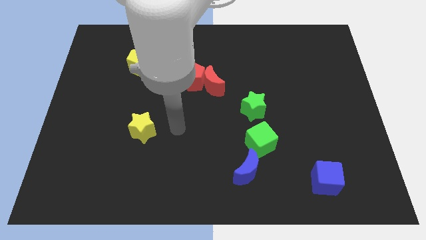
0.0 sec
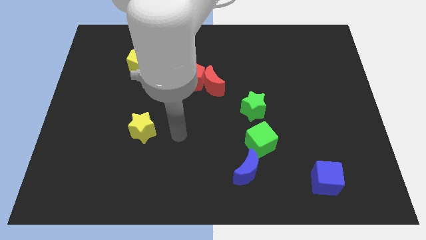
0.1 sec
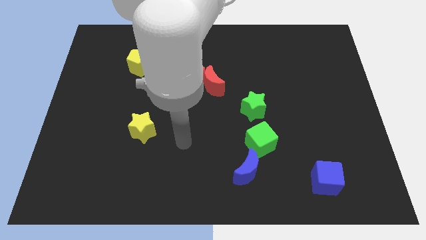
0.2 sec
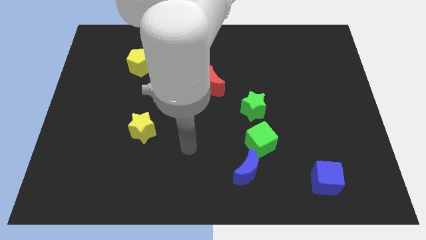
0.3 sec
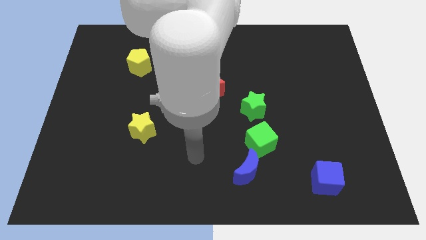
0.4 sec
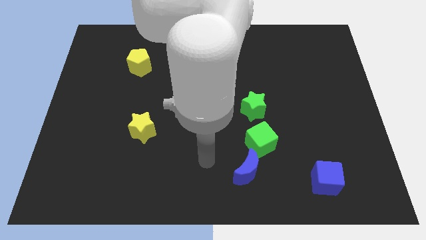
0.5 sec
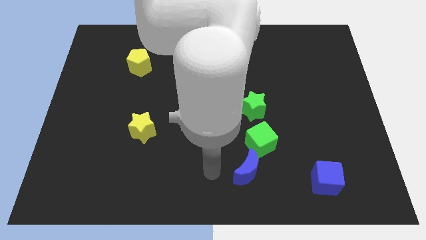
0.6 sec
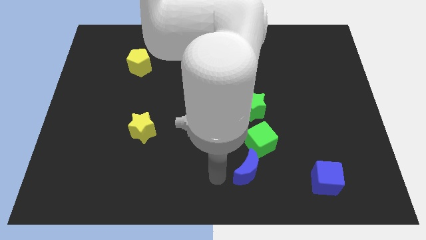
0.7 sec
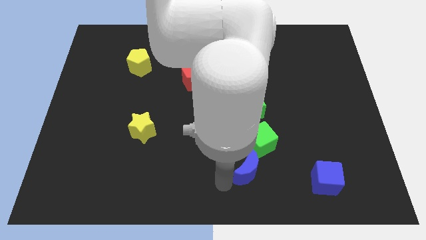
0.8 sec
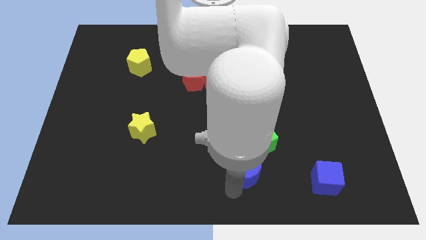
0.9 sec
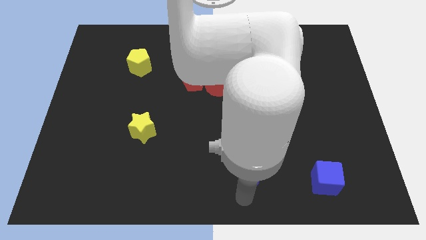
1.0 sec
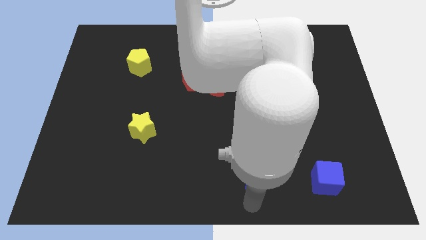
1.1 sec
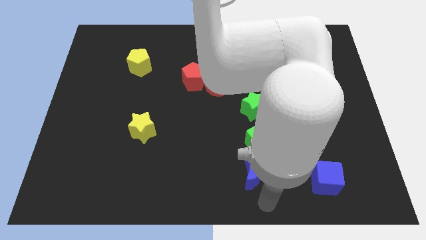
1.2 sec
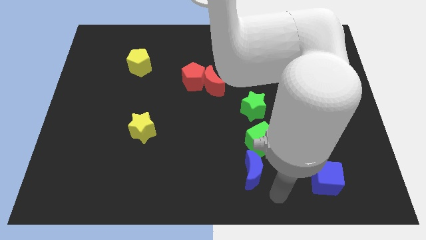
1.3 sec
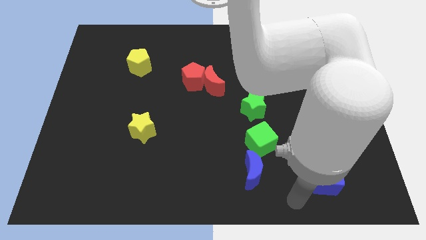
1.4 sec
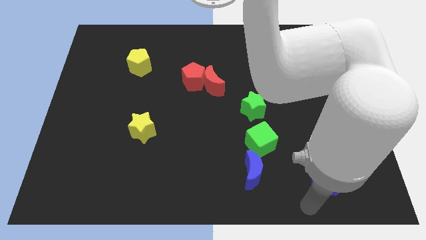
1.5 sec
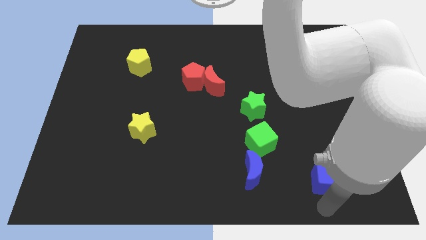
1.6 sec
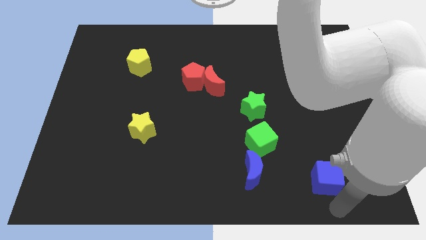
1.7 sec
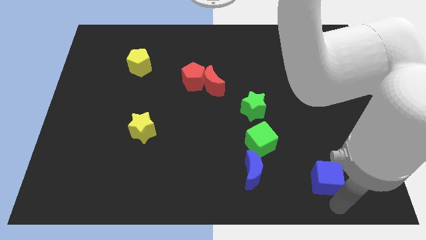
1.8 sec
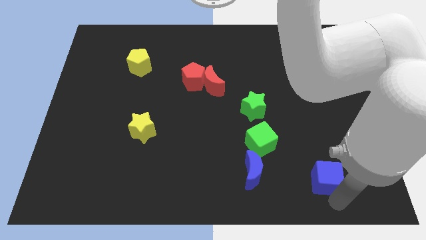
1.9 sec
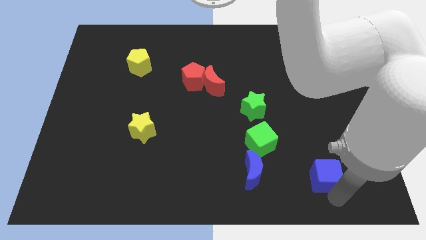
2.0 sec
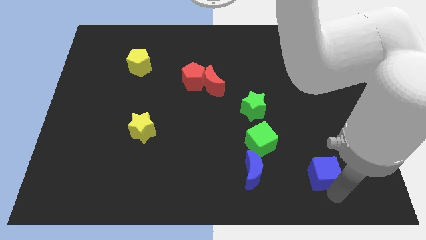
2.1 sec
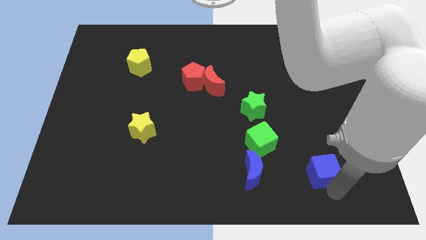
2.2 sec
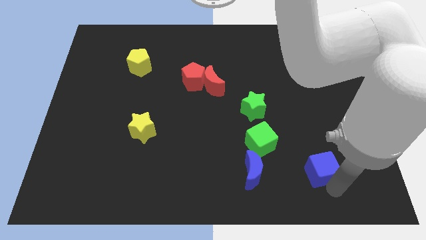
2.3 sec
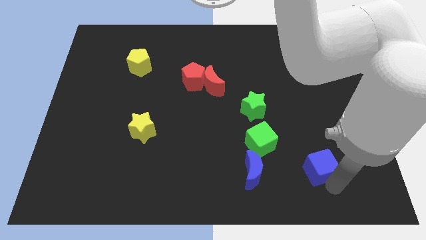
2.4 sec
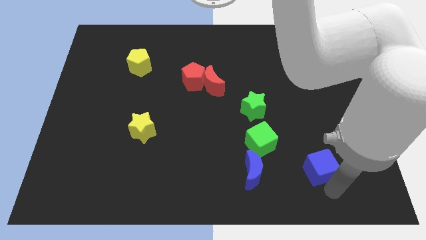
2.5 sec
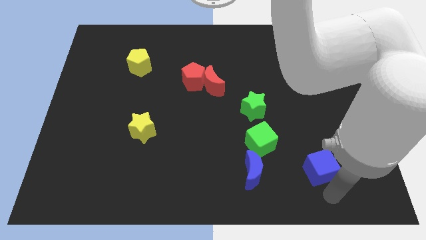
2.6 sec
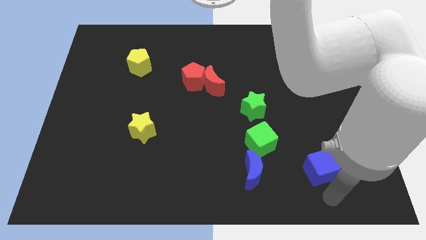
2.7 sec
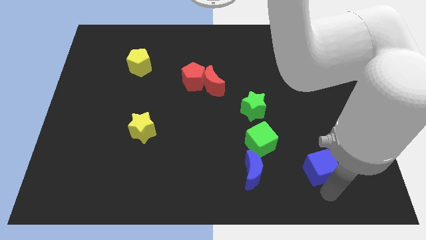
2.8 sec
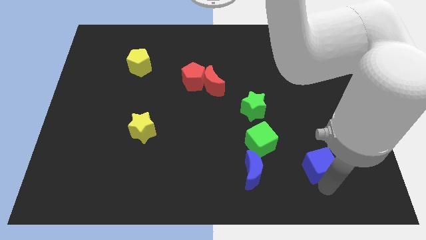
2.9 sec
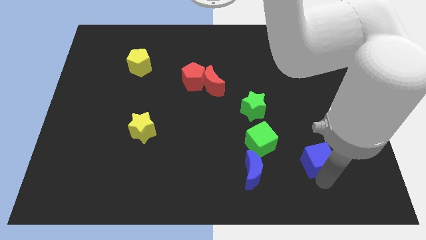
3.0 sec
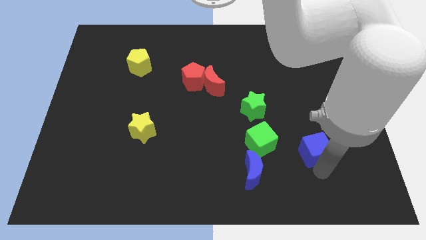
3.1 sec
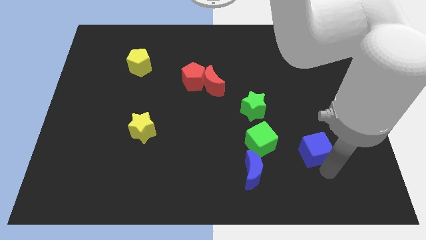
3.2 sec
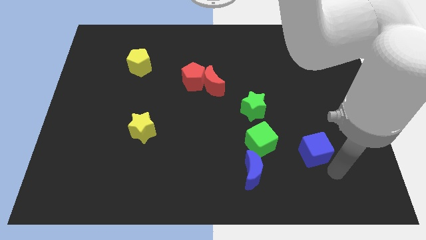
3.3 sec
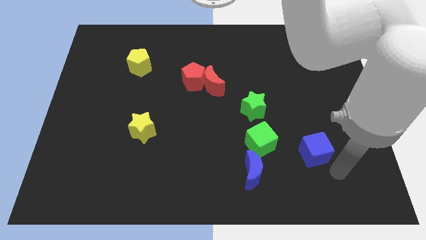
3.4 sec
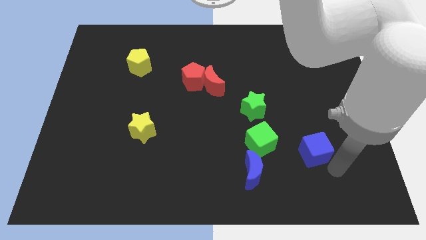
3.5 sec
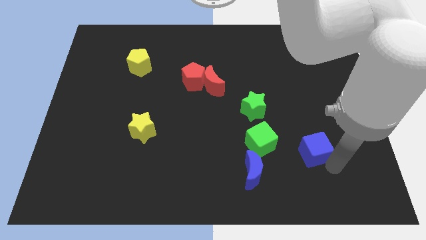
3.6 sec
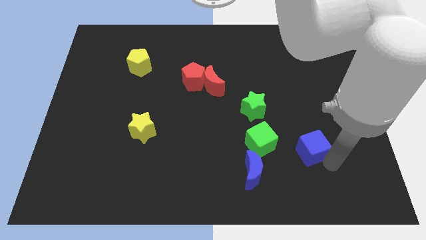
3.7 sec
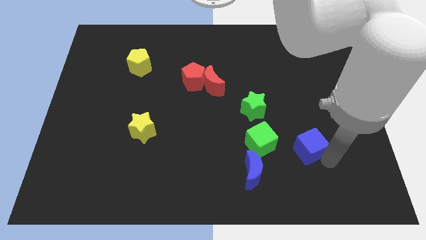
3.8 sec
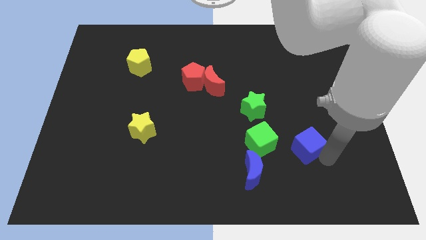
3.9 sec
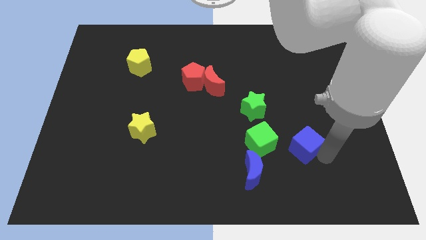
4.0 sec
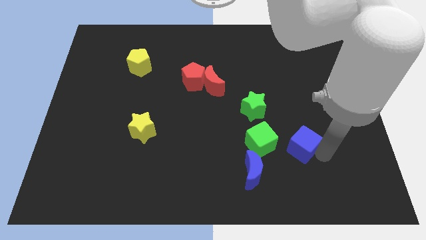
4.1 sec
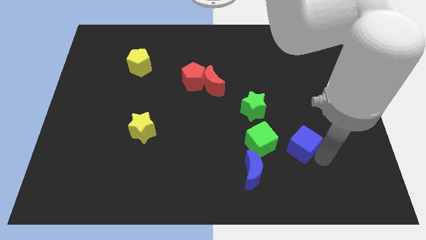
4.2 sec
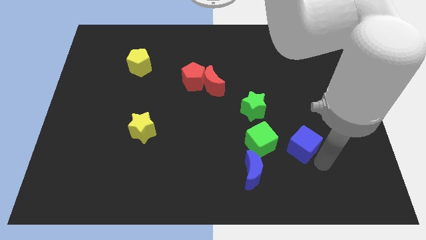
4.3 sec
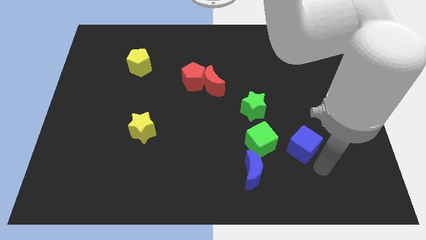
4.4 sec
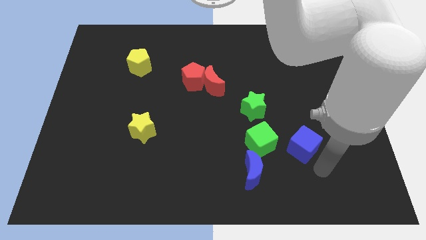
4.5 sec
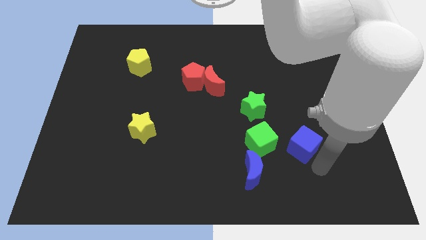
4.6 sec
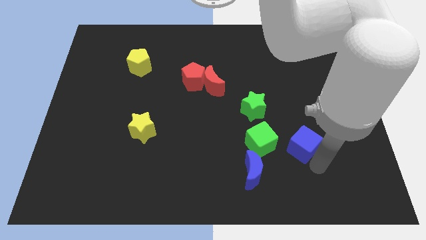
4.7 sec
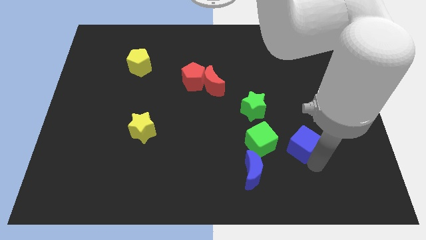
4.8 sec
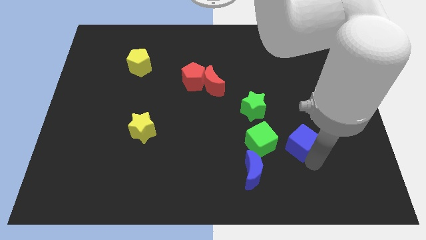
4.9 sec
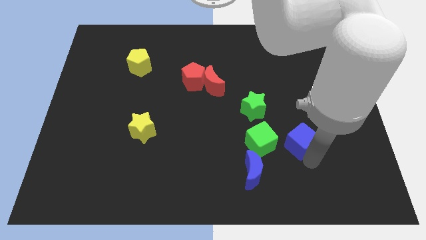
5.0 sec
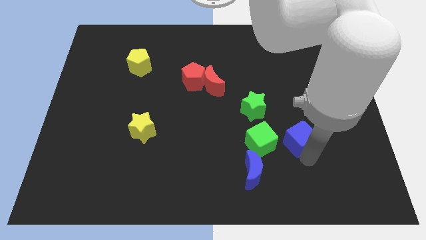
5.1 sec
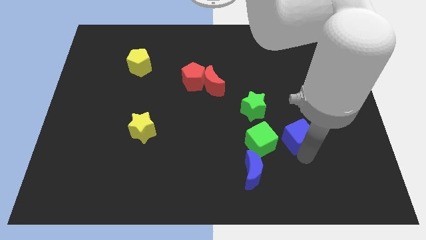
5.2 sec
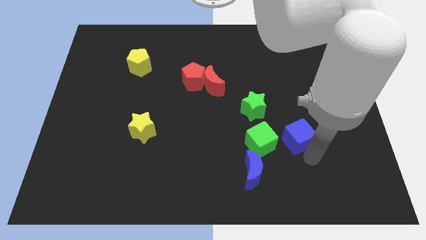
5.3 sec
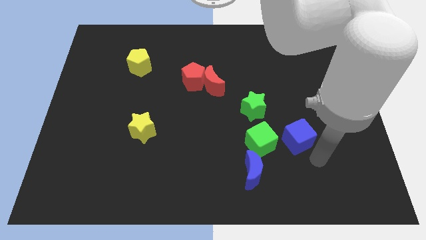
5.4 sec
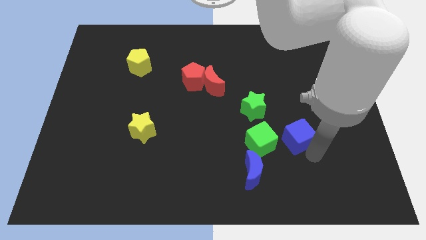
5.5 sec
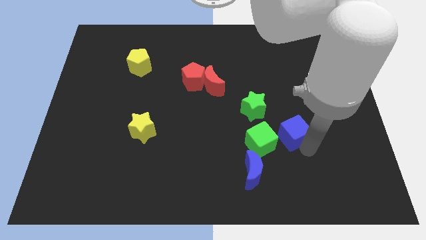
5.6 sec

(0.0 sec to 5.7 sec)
push the blue cube to the top right of the green cube

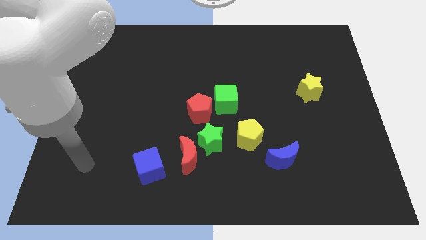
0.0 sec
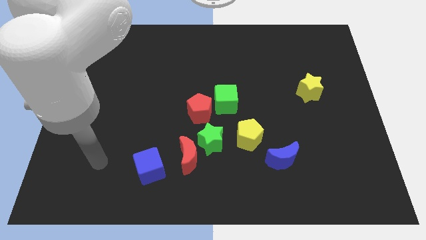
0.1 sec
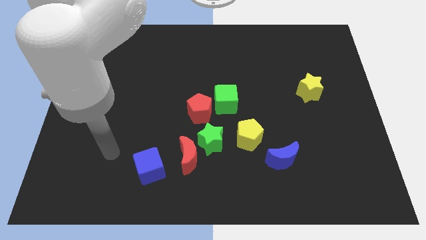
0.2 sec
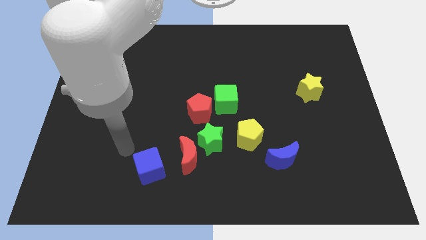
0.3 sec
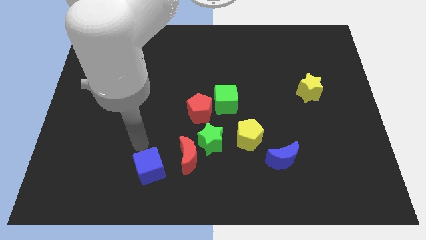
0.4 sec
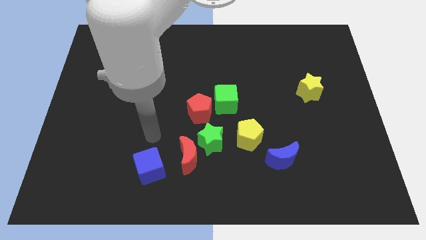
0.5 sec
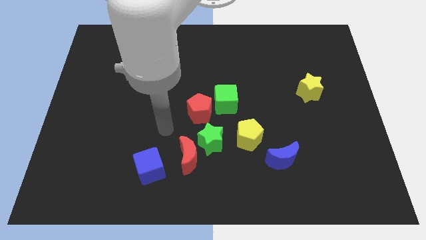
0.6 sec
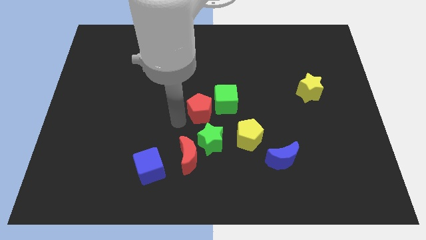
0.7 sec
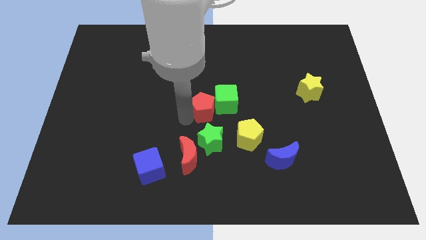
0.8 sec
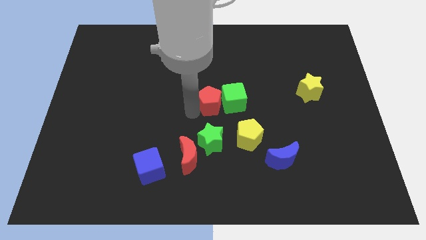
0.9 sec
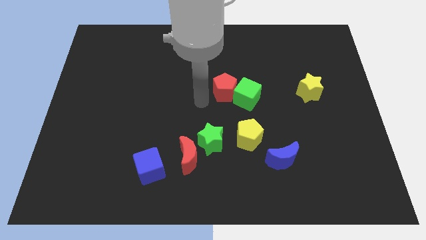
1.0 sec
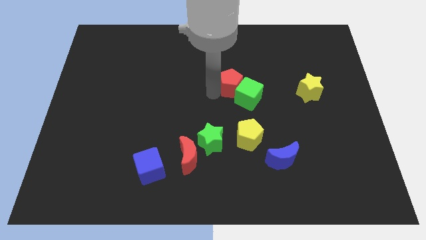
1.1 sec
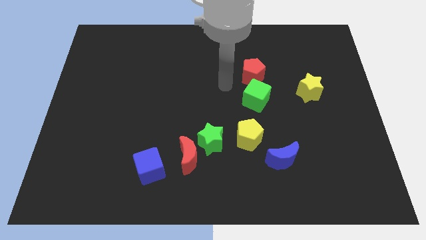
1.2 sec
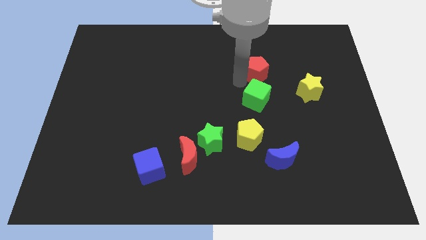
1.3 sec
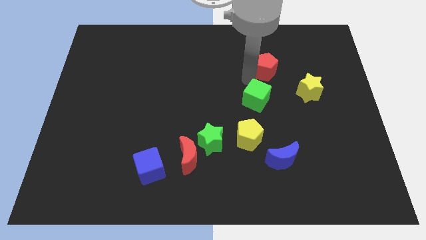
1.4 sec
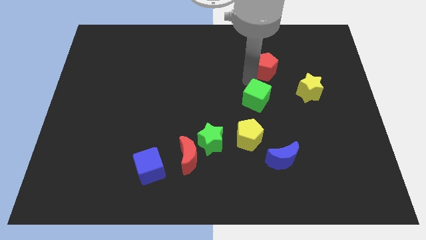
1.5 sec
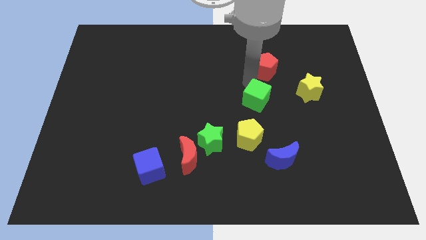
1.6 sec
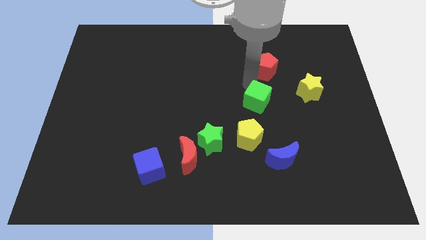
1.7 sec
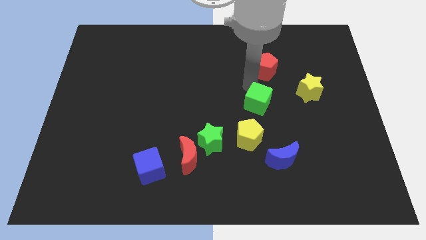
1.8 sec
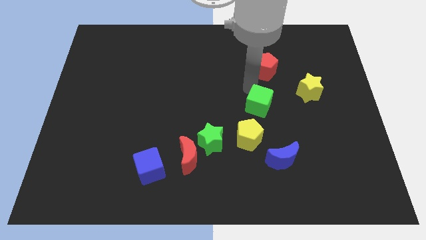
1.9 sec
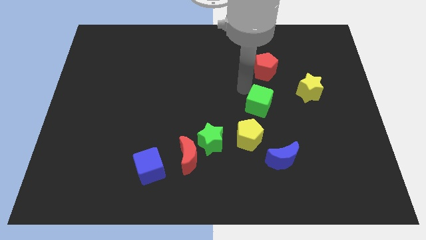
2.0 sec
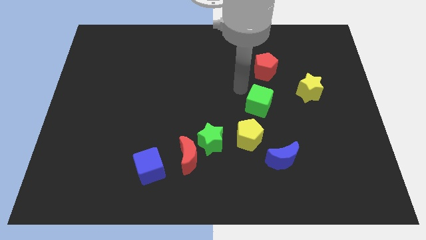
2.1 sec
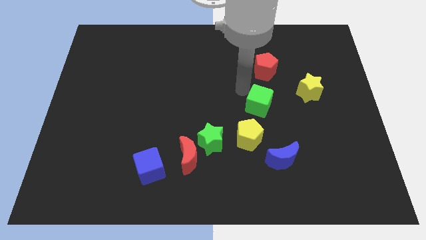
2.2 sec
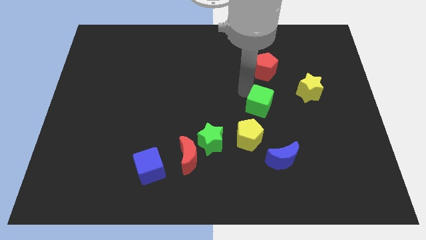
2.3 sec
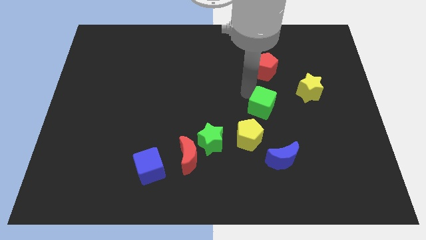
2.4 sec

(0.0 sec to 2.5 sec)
move the green cube to the top side of the blue moon
